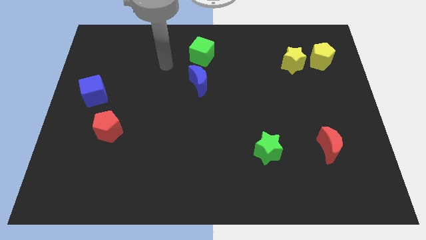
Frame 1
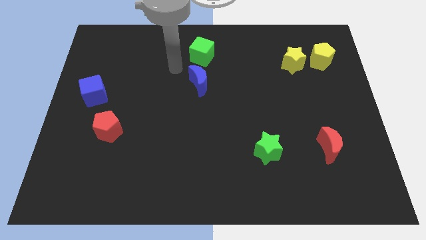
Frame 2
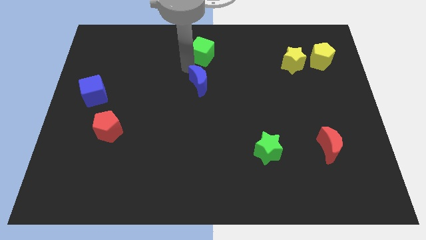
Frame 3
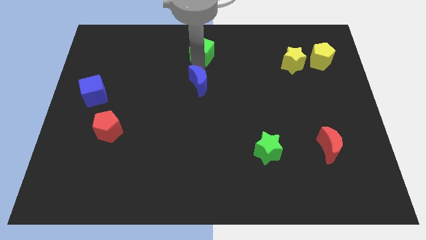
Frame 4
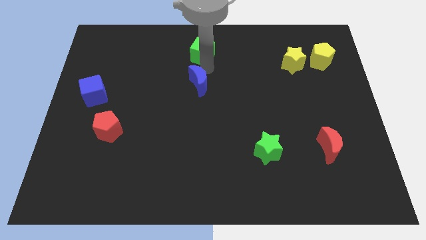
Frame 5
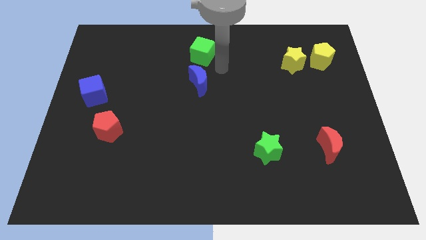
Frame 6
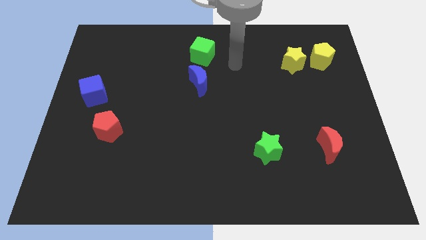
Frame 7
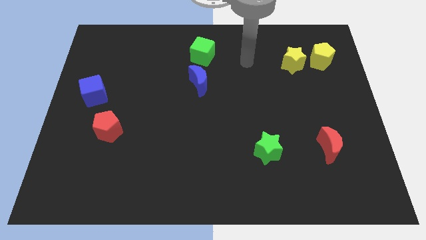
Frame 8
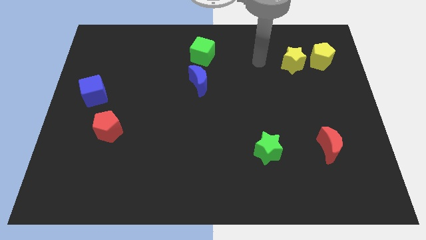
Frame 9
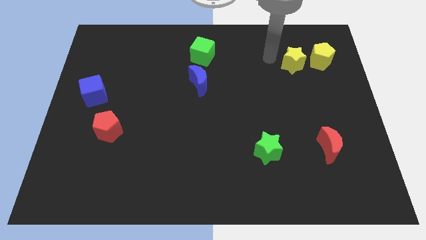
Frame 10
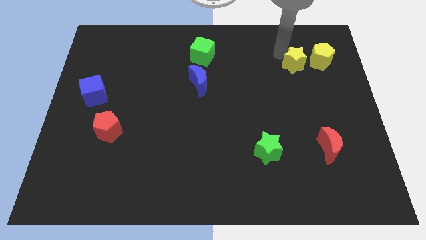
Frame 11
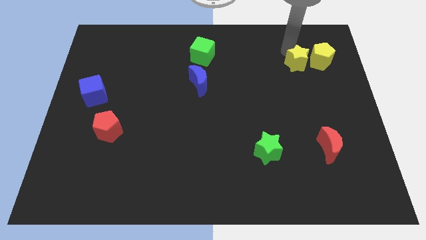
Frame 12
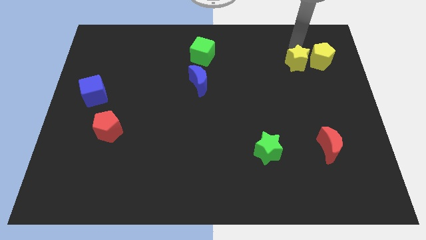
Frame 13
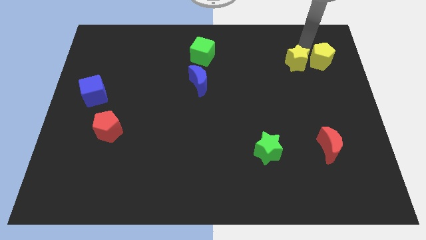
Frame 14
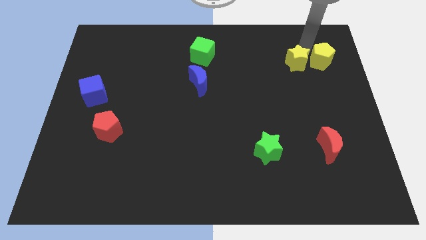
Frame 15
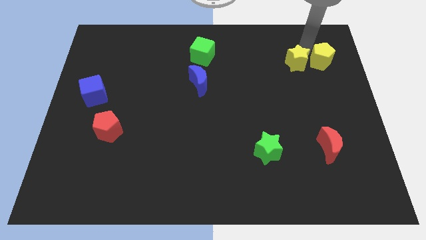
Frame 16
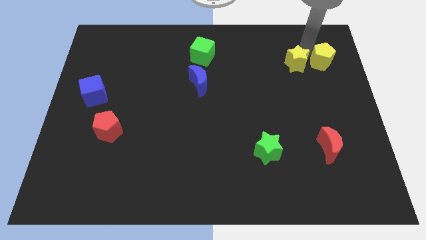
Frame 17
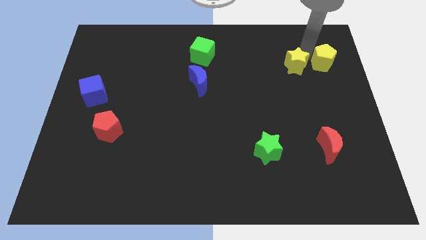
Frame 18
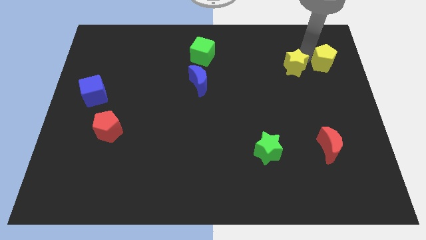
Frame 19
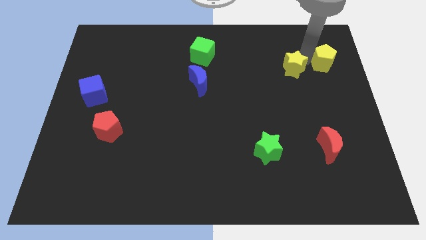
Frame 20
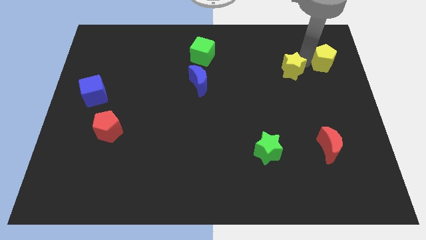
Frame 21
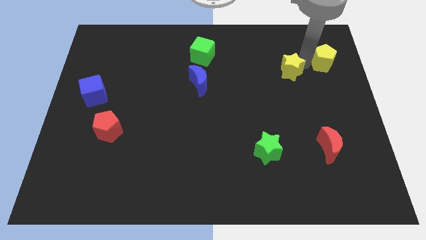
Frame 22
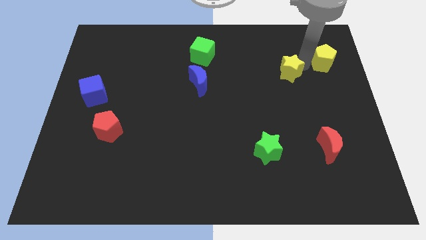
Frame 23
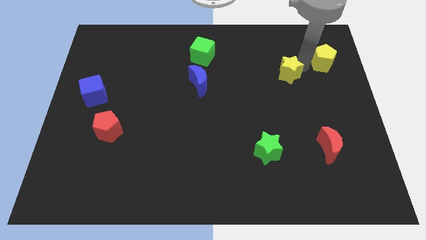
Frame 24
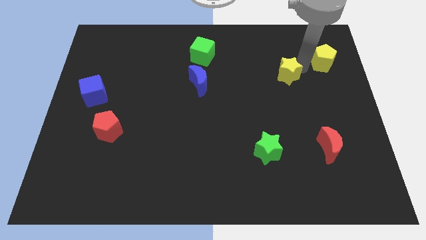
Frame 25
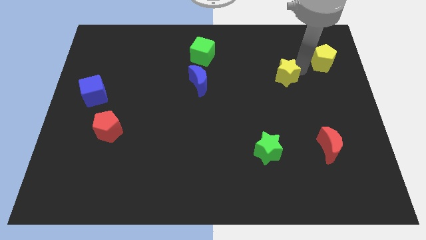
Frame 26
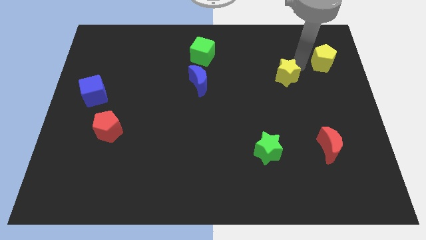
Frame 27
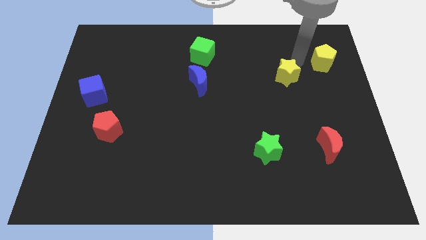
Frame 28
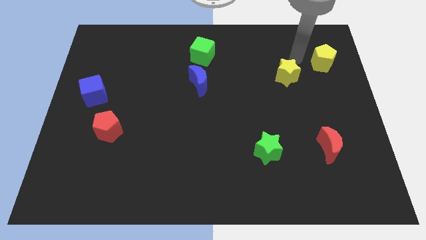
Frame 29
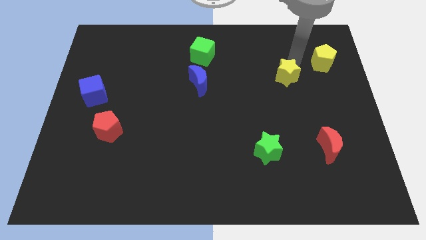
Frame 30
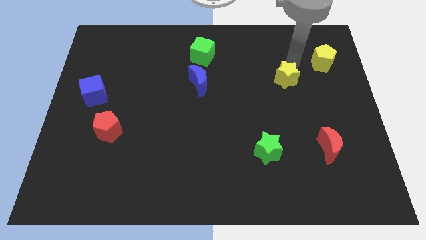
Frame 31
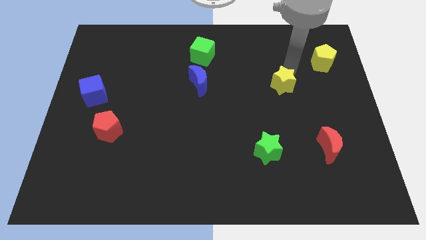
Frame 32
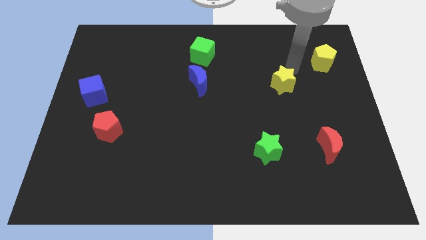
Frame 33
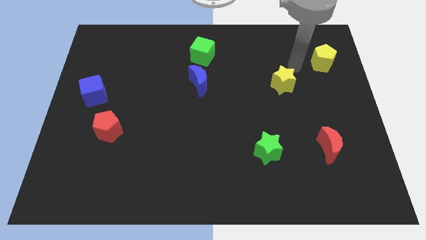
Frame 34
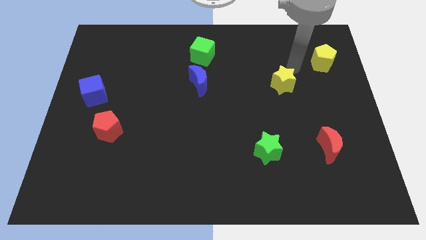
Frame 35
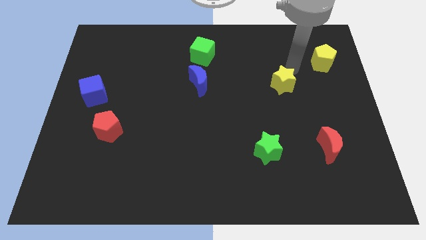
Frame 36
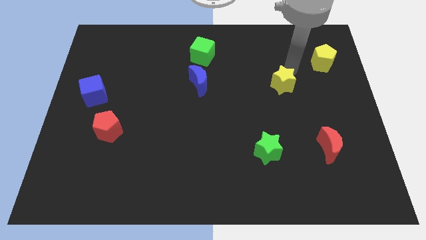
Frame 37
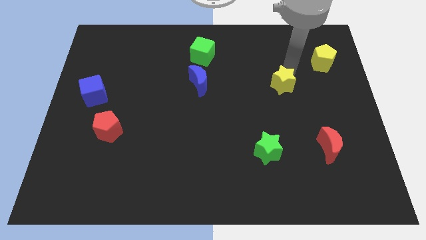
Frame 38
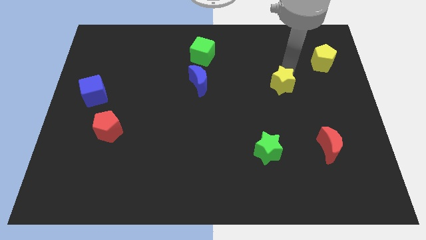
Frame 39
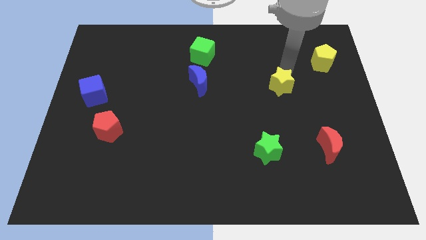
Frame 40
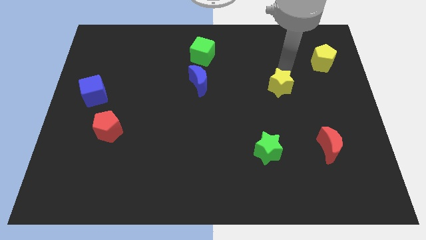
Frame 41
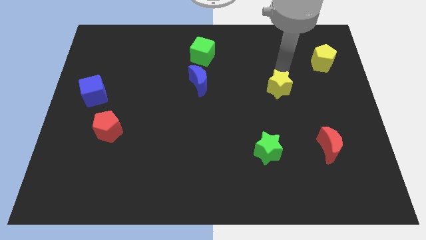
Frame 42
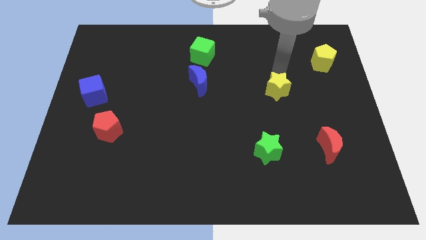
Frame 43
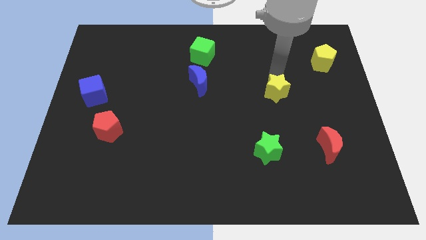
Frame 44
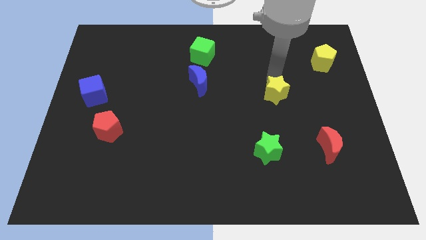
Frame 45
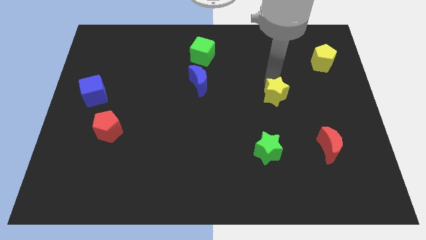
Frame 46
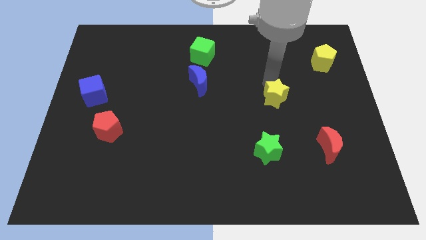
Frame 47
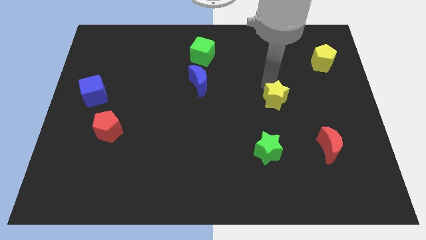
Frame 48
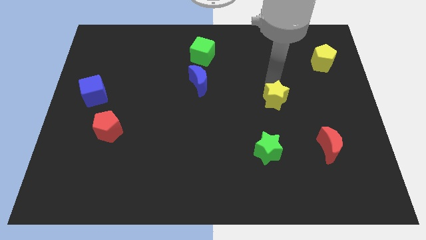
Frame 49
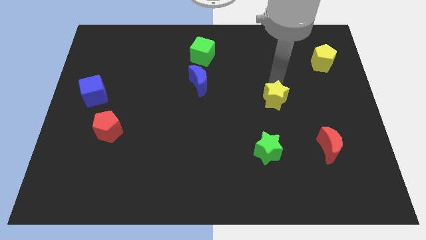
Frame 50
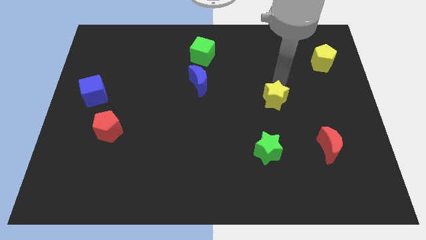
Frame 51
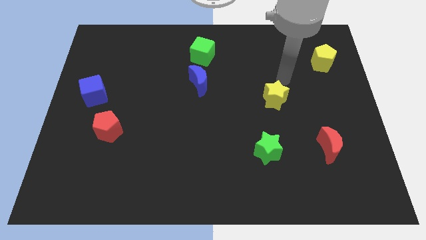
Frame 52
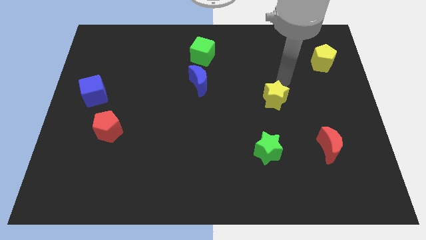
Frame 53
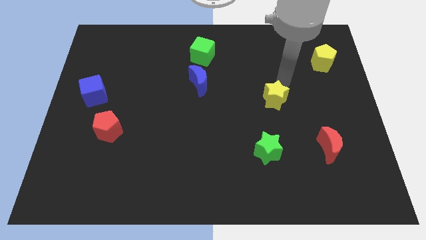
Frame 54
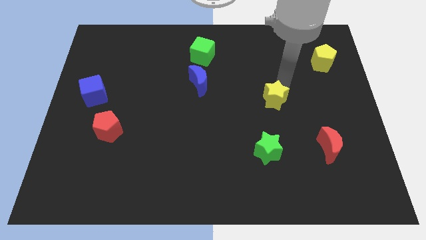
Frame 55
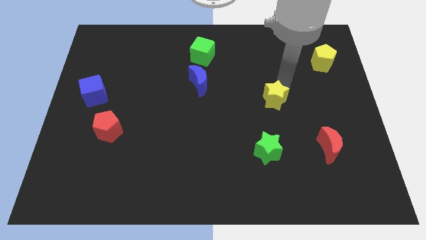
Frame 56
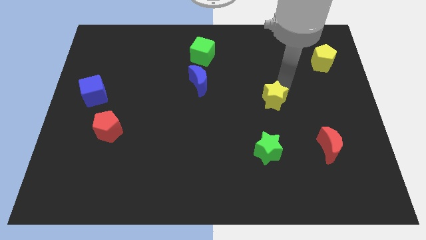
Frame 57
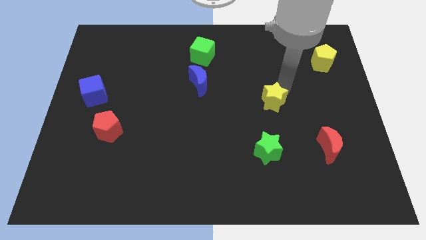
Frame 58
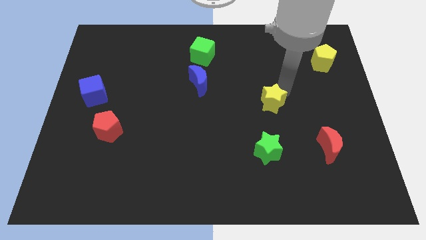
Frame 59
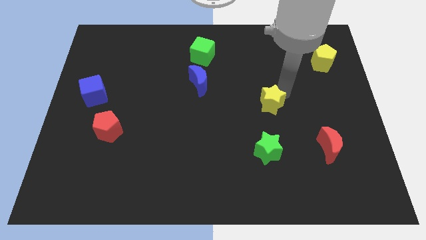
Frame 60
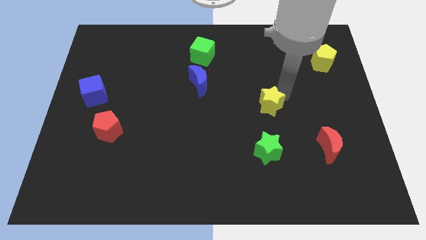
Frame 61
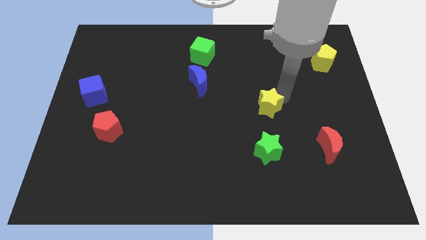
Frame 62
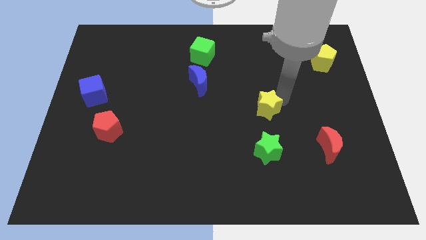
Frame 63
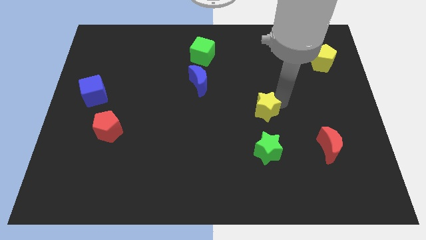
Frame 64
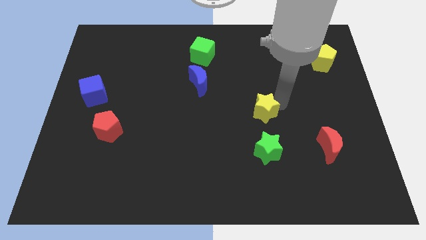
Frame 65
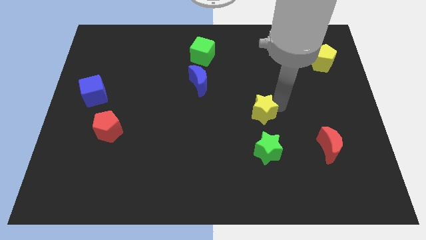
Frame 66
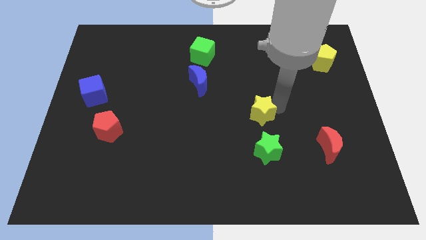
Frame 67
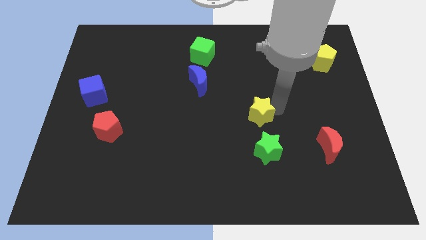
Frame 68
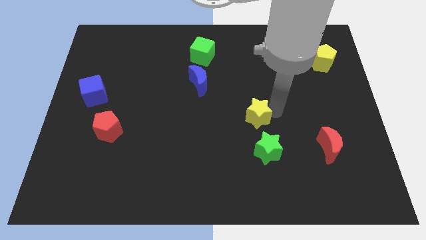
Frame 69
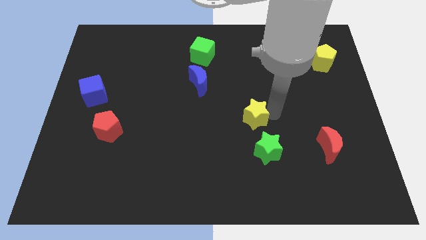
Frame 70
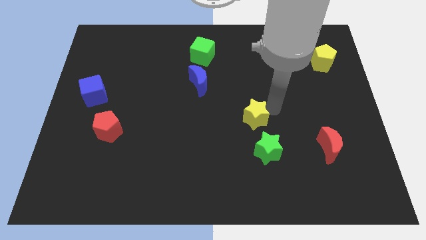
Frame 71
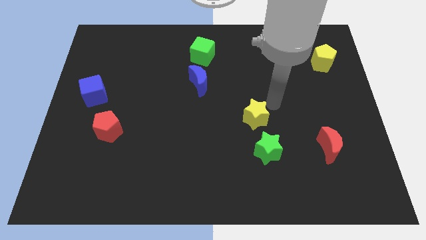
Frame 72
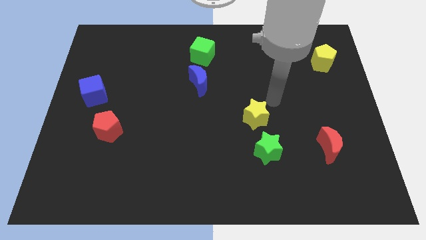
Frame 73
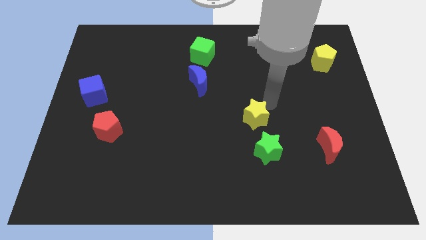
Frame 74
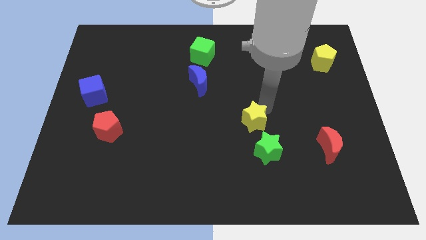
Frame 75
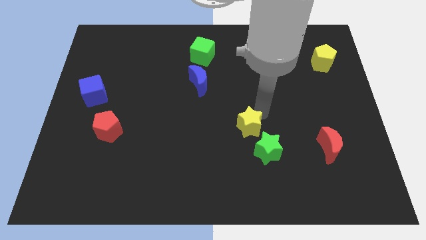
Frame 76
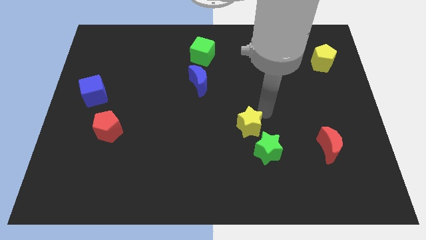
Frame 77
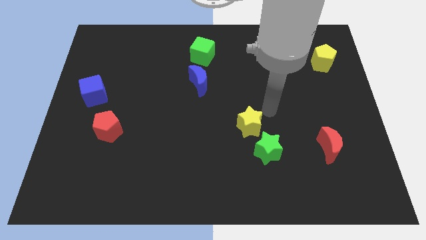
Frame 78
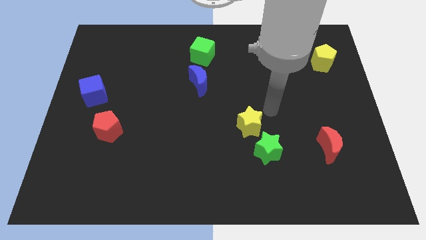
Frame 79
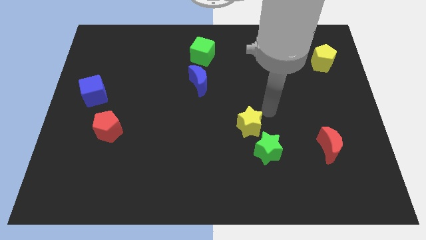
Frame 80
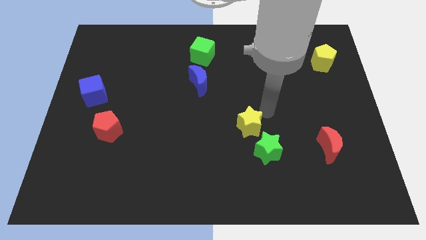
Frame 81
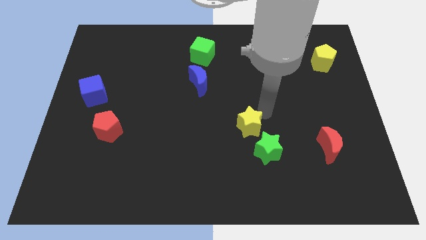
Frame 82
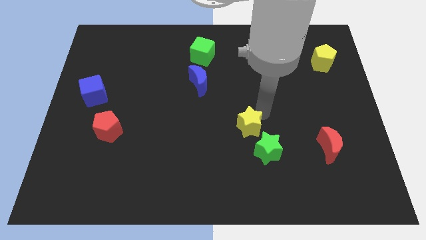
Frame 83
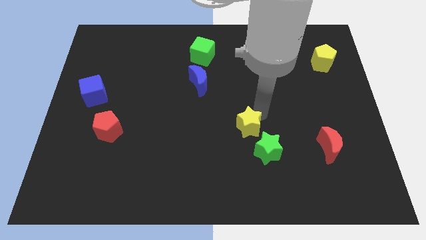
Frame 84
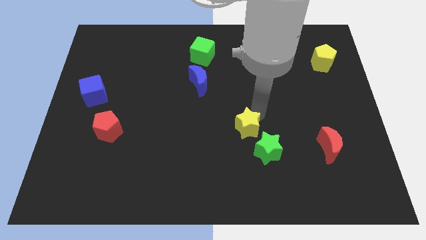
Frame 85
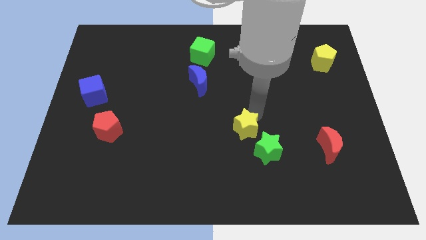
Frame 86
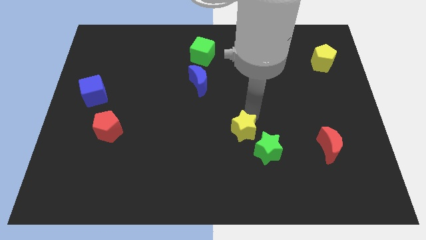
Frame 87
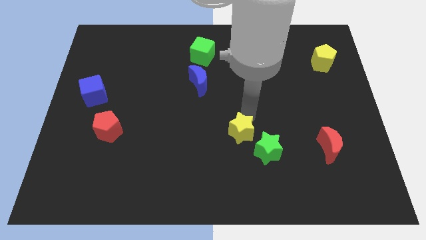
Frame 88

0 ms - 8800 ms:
put the yellow star left of the green star
